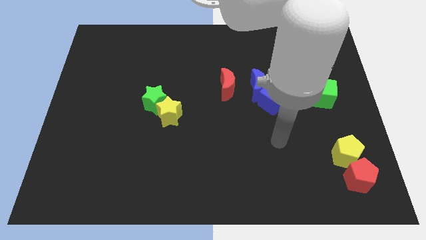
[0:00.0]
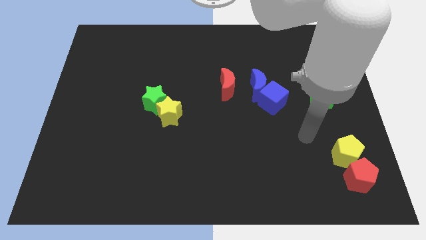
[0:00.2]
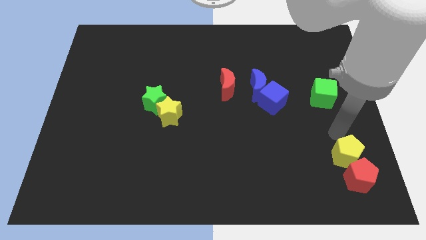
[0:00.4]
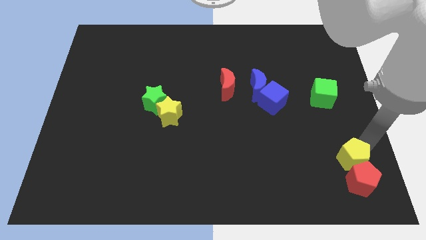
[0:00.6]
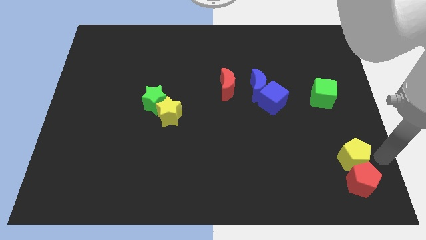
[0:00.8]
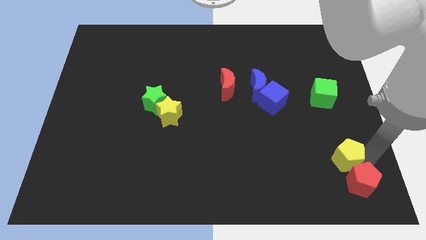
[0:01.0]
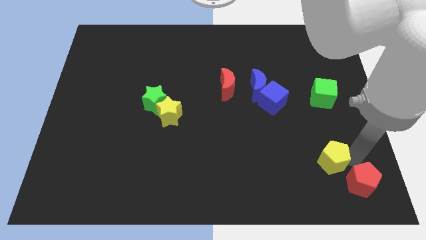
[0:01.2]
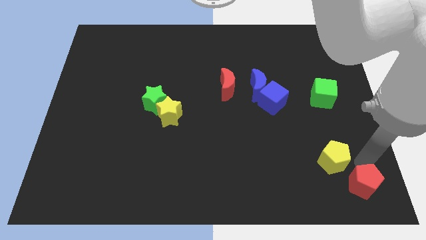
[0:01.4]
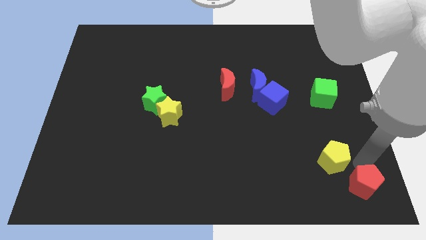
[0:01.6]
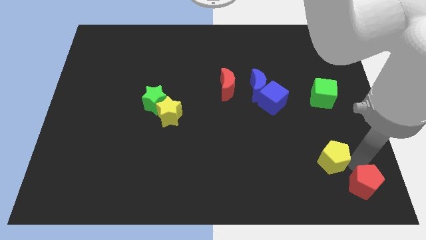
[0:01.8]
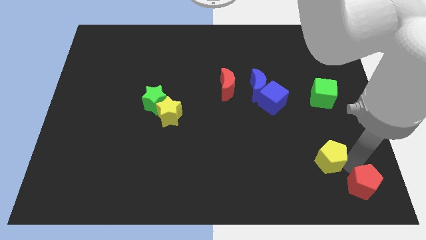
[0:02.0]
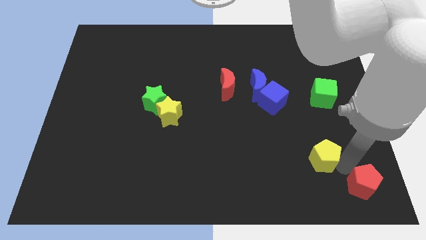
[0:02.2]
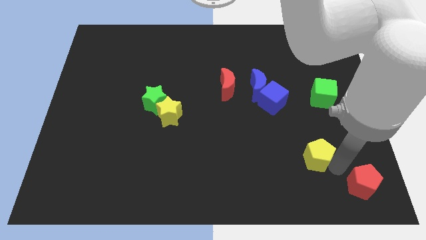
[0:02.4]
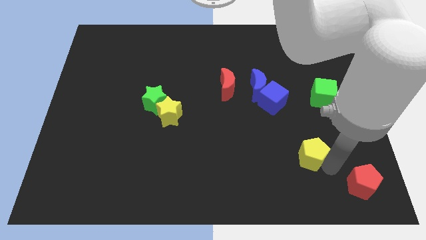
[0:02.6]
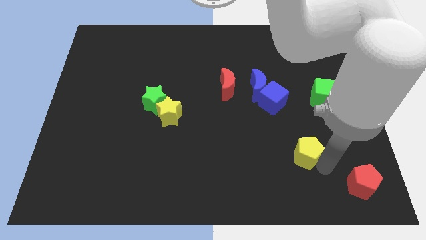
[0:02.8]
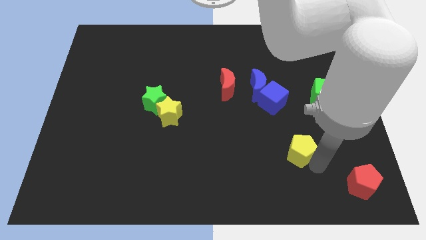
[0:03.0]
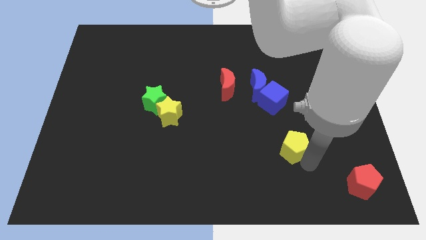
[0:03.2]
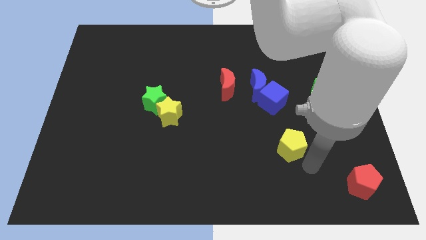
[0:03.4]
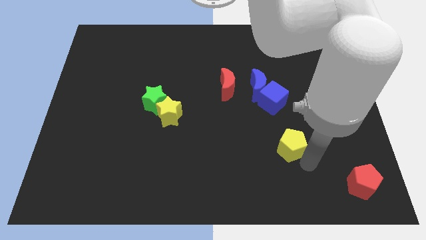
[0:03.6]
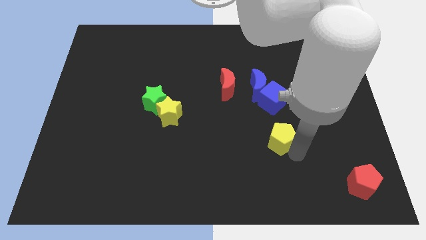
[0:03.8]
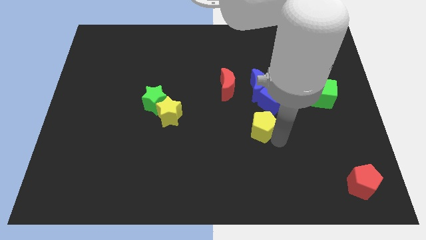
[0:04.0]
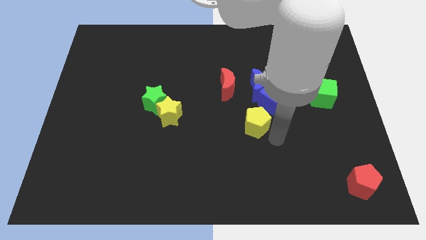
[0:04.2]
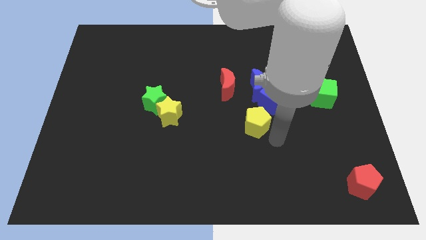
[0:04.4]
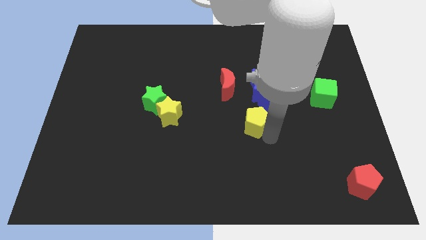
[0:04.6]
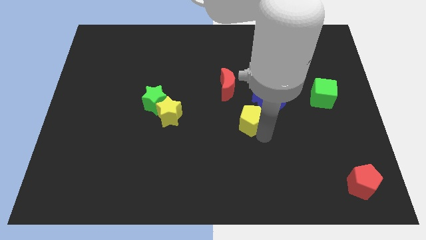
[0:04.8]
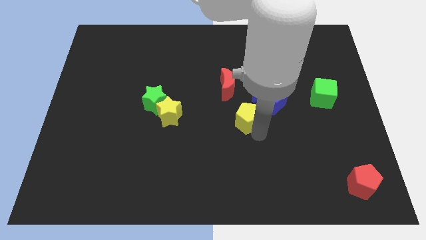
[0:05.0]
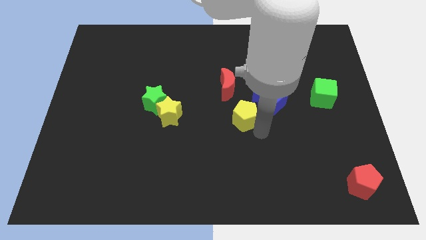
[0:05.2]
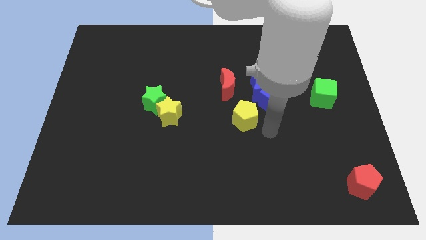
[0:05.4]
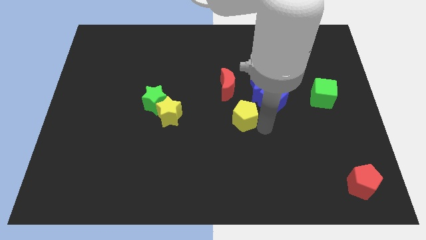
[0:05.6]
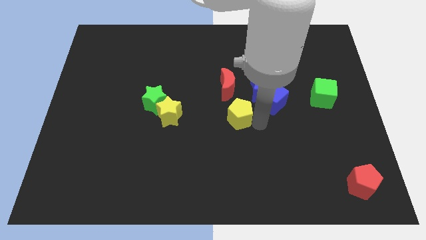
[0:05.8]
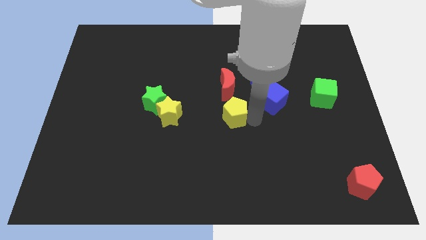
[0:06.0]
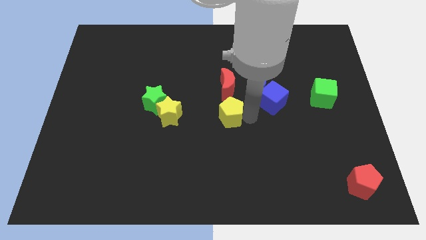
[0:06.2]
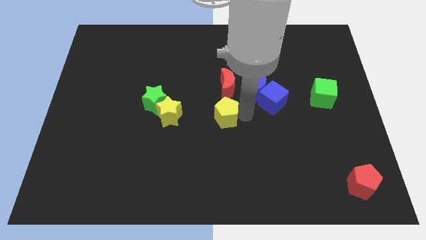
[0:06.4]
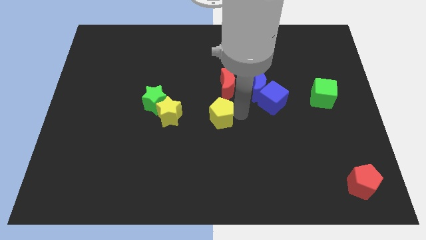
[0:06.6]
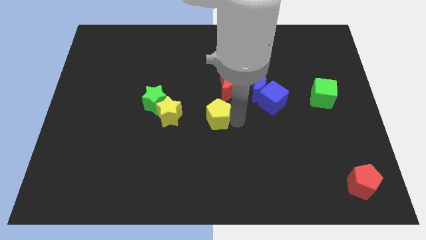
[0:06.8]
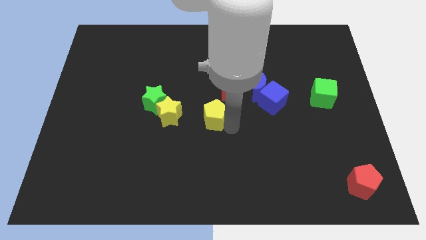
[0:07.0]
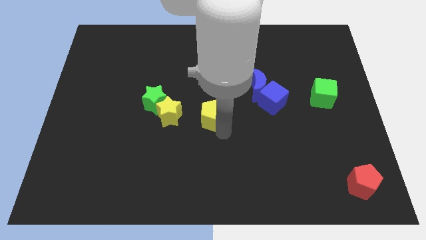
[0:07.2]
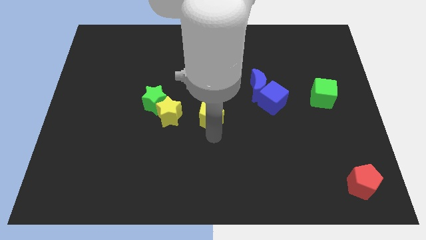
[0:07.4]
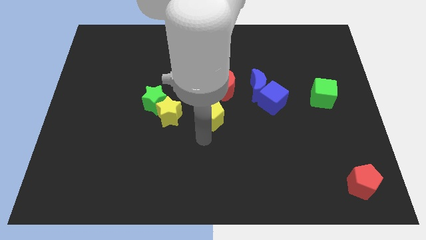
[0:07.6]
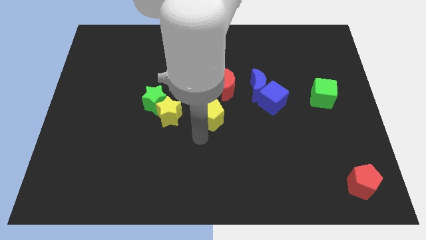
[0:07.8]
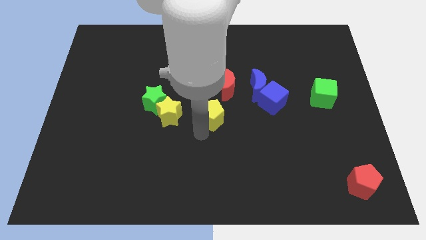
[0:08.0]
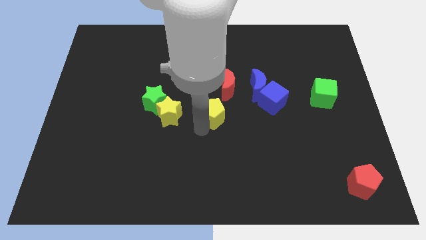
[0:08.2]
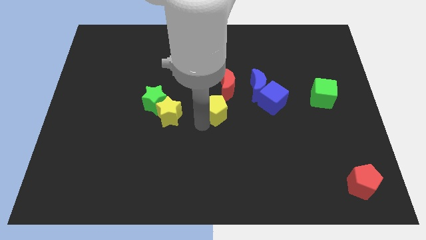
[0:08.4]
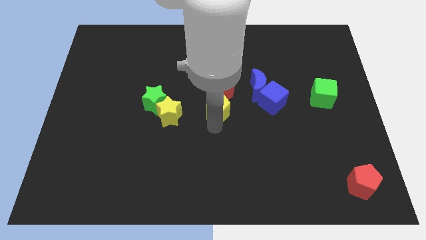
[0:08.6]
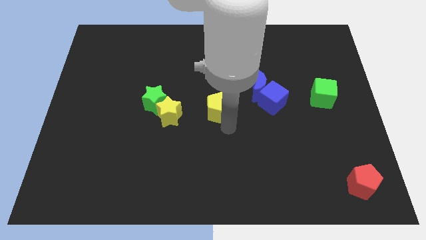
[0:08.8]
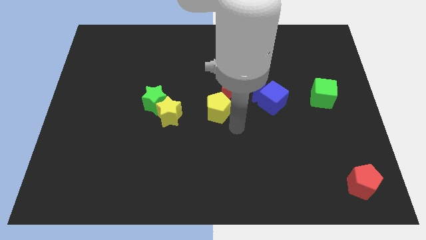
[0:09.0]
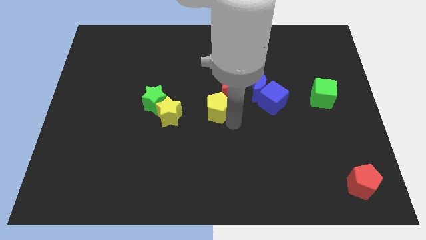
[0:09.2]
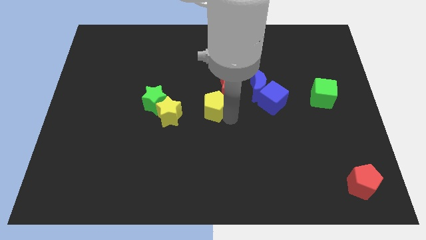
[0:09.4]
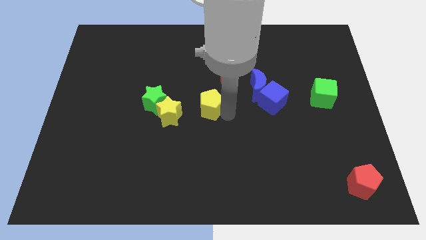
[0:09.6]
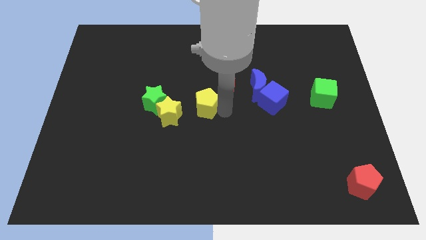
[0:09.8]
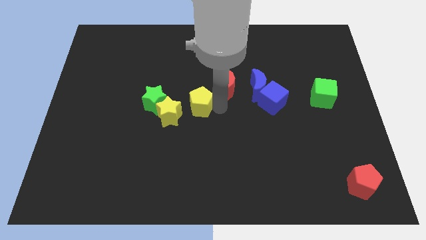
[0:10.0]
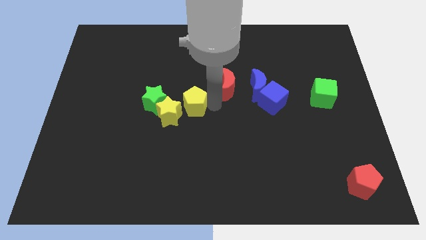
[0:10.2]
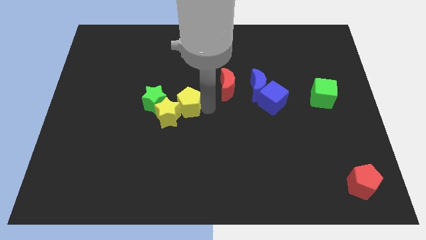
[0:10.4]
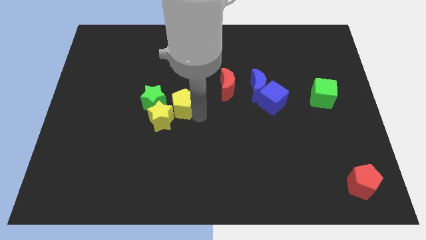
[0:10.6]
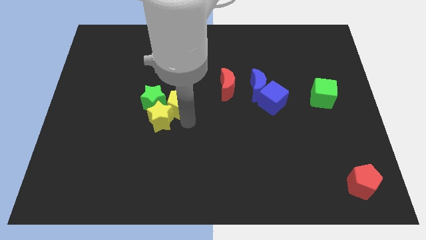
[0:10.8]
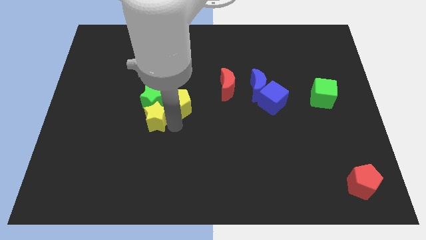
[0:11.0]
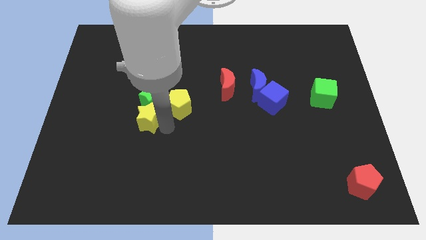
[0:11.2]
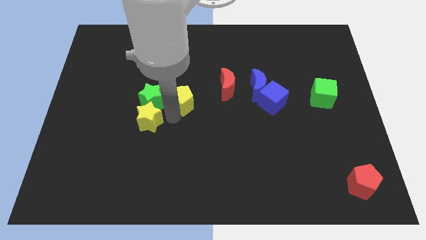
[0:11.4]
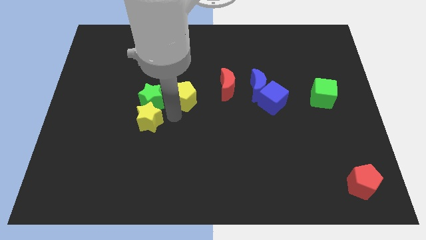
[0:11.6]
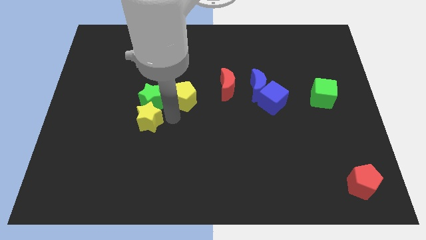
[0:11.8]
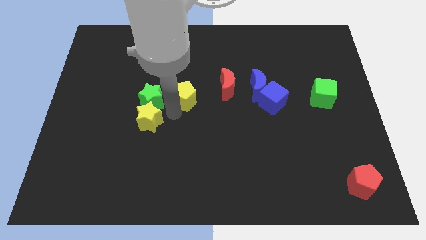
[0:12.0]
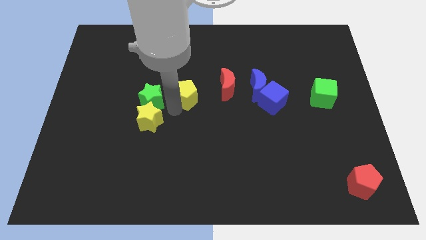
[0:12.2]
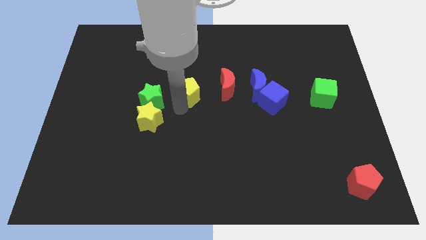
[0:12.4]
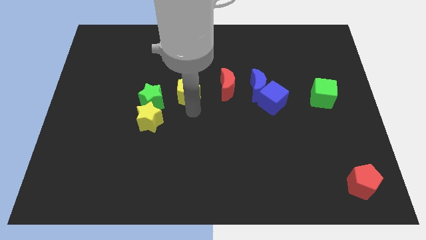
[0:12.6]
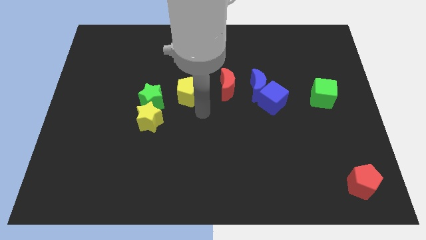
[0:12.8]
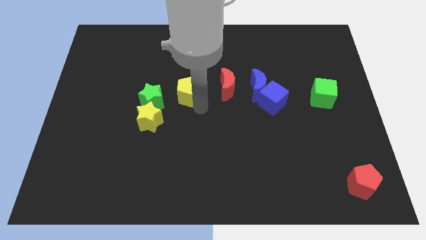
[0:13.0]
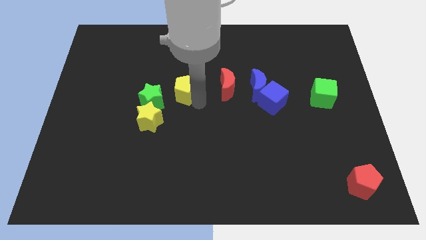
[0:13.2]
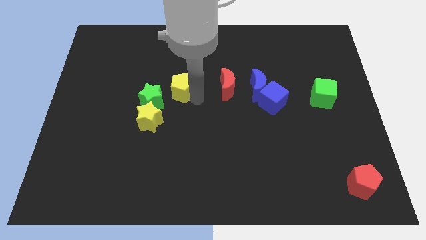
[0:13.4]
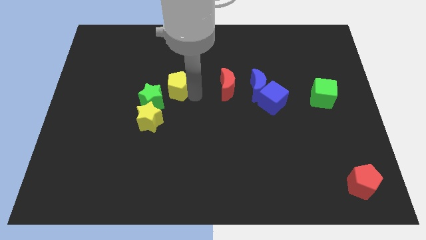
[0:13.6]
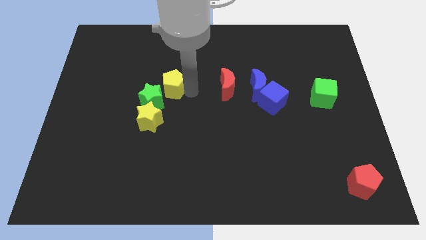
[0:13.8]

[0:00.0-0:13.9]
put the yellow pentagon to the top of the green star
